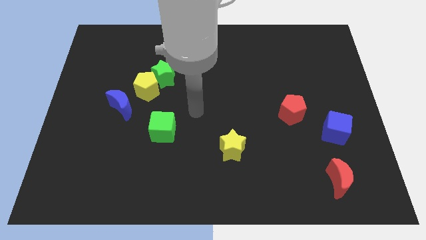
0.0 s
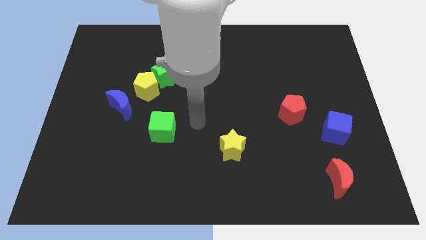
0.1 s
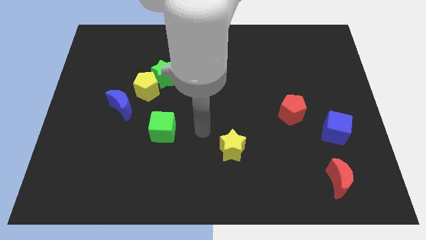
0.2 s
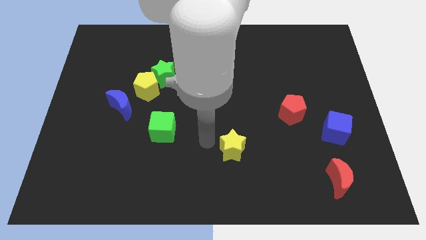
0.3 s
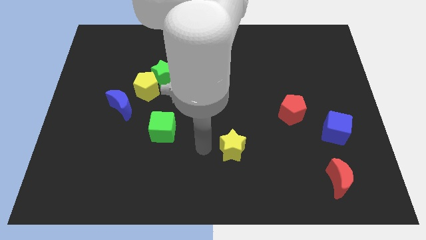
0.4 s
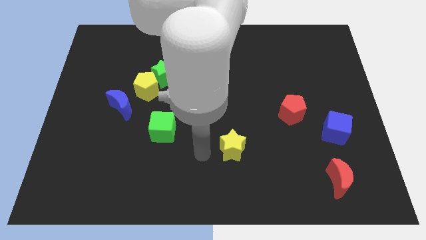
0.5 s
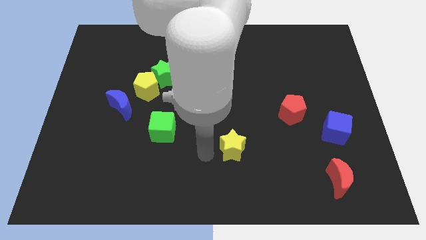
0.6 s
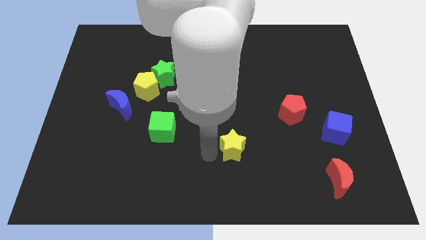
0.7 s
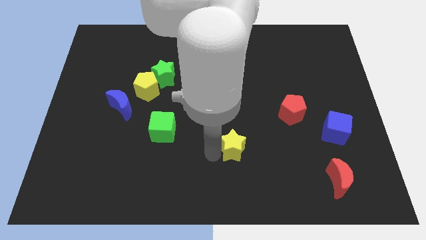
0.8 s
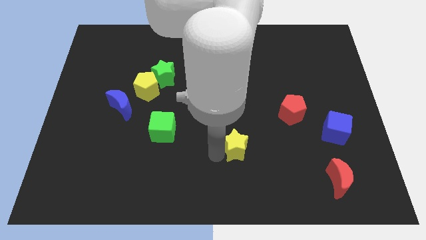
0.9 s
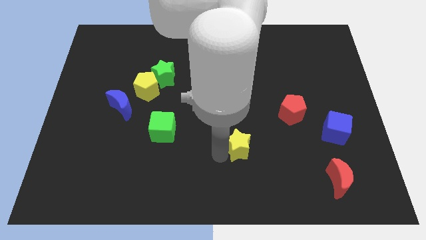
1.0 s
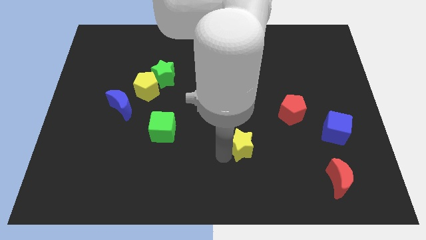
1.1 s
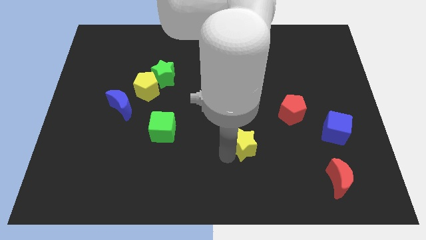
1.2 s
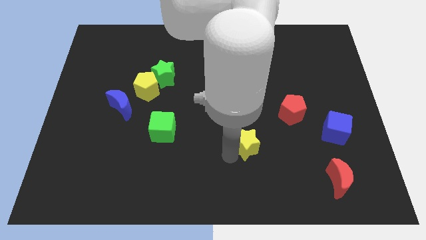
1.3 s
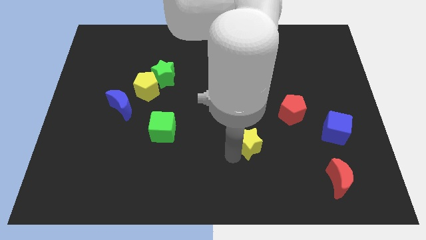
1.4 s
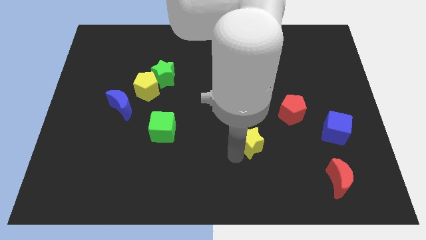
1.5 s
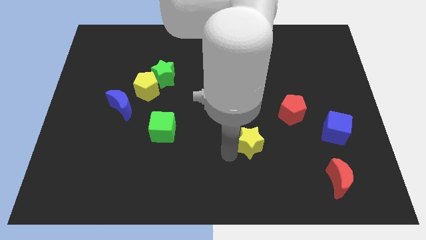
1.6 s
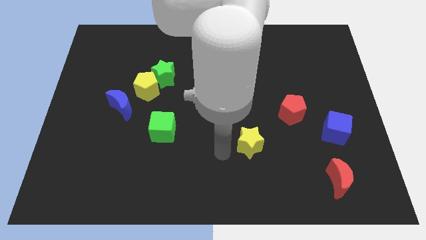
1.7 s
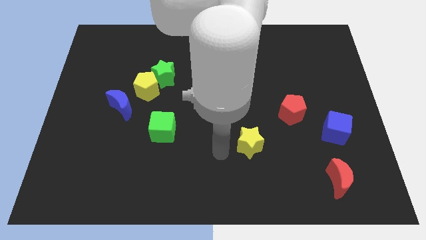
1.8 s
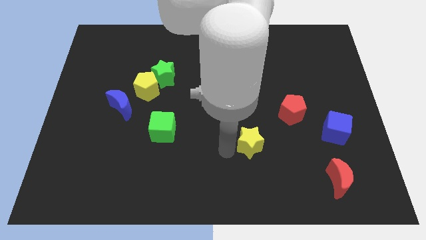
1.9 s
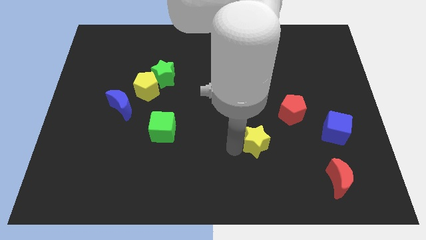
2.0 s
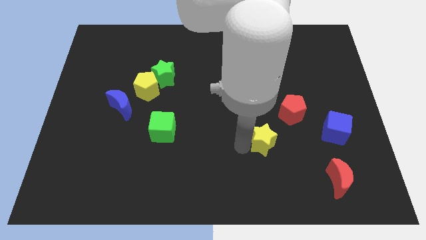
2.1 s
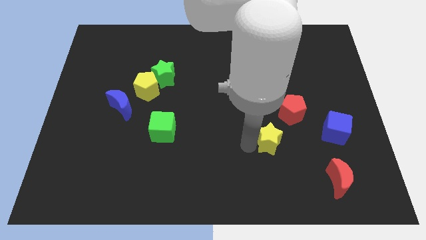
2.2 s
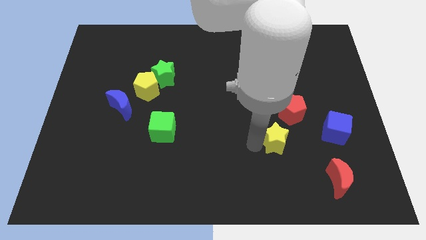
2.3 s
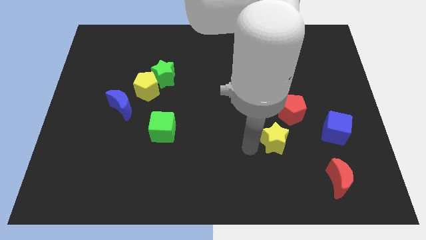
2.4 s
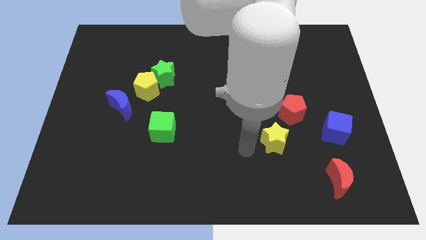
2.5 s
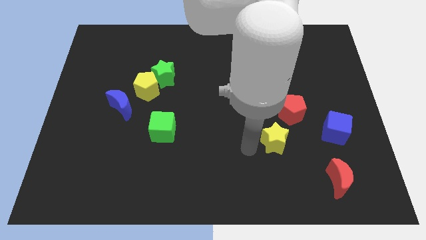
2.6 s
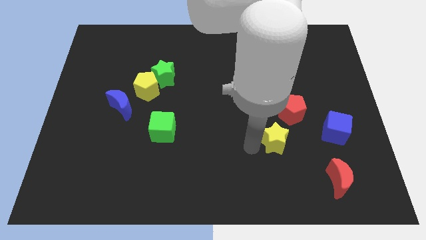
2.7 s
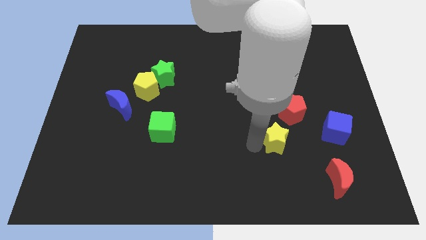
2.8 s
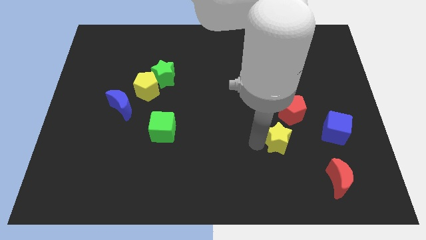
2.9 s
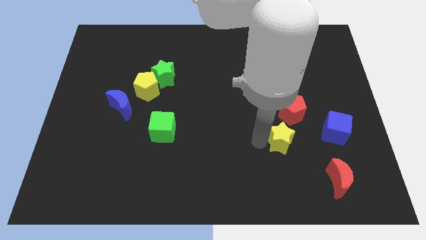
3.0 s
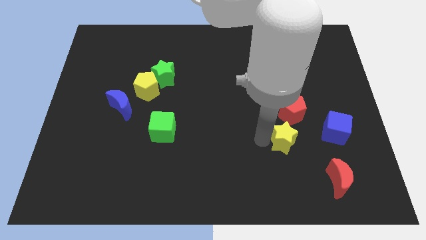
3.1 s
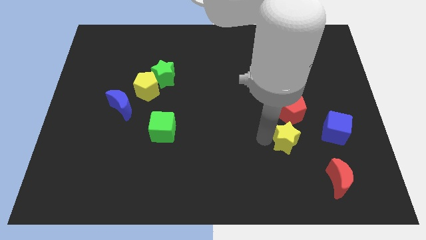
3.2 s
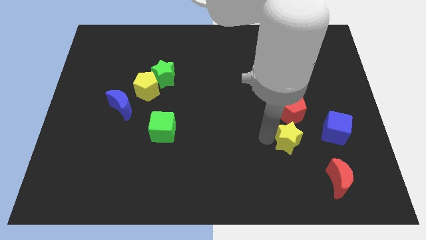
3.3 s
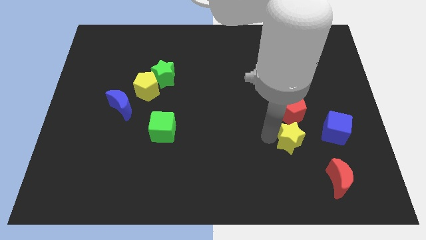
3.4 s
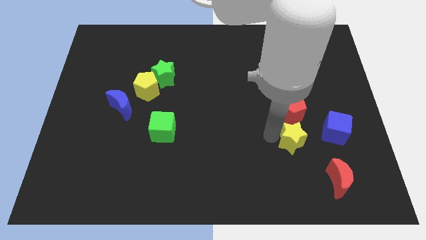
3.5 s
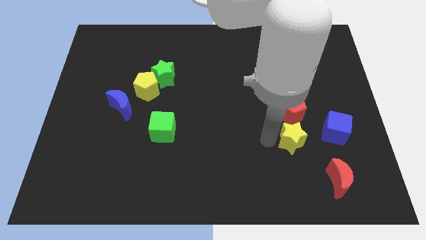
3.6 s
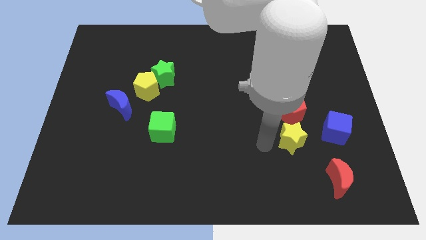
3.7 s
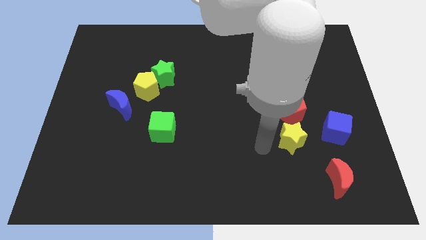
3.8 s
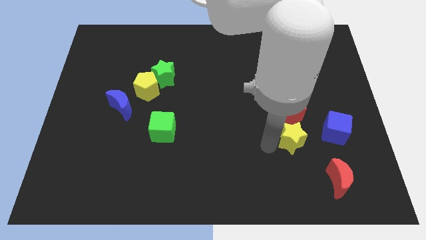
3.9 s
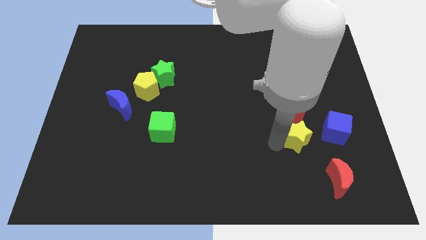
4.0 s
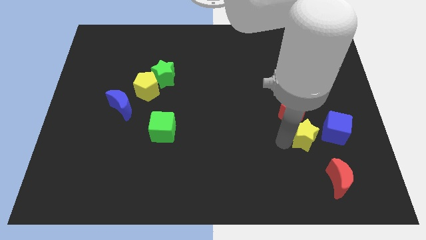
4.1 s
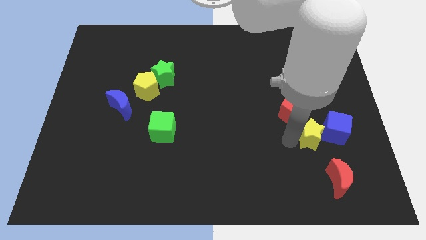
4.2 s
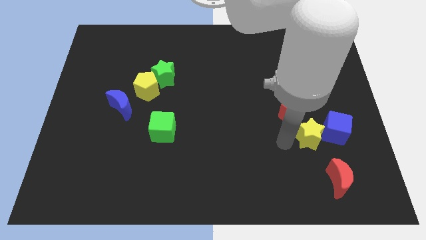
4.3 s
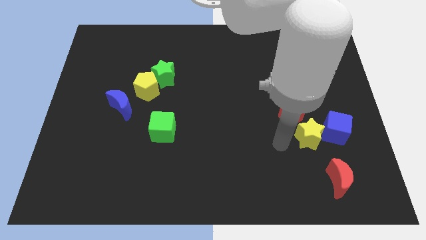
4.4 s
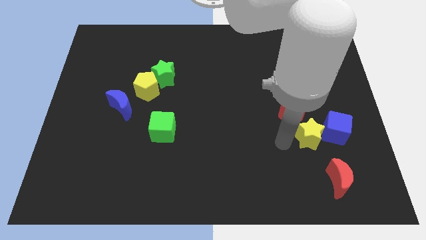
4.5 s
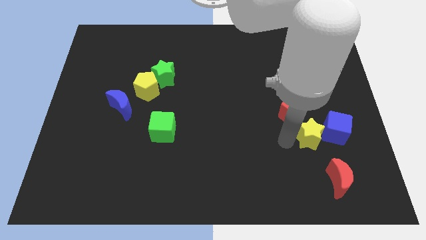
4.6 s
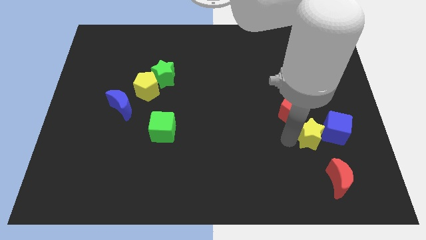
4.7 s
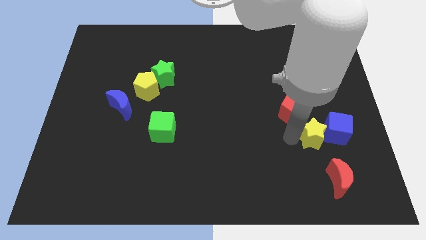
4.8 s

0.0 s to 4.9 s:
slide the yellow star to the blue cube

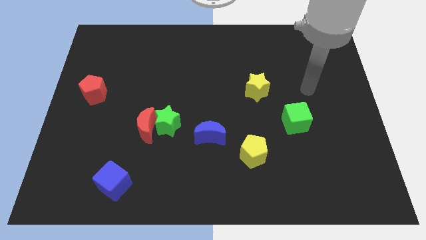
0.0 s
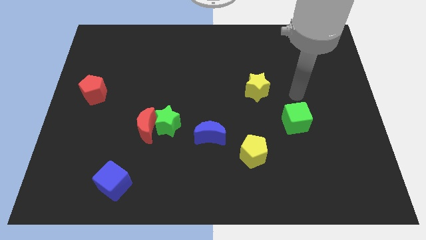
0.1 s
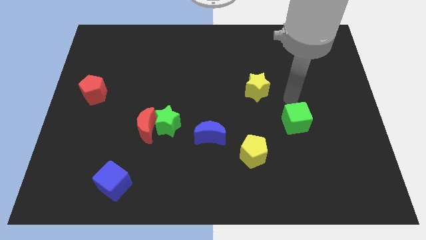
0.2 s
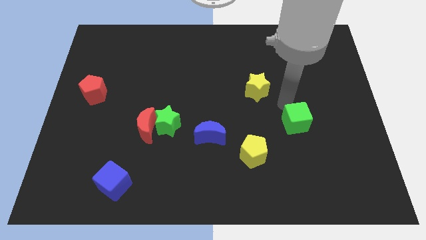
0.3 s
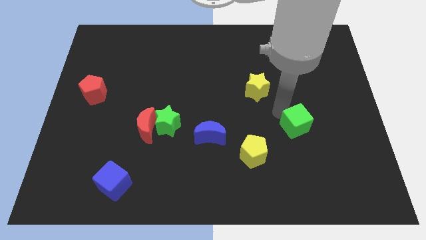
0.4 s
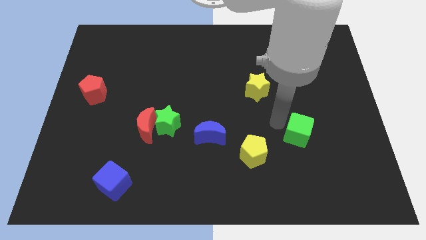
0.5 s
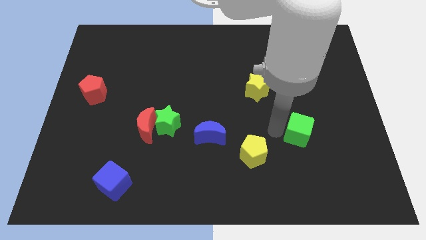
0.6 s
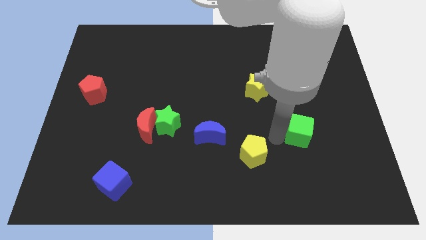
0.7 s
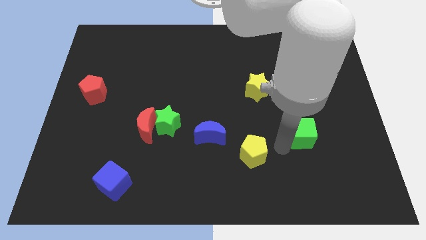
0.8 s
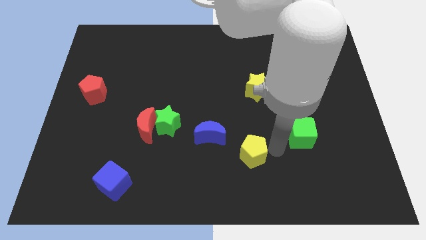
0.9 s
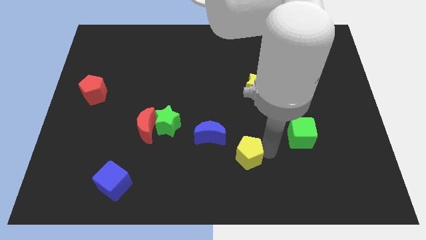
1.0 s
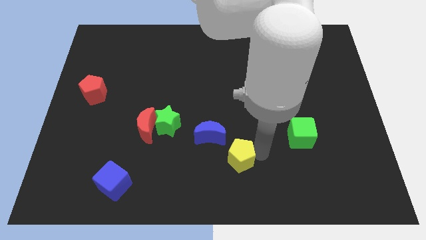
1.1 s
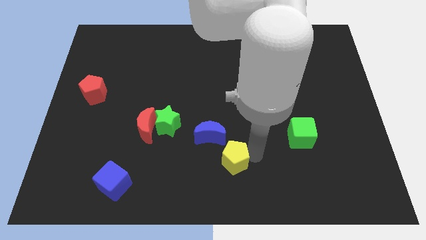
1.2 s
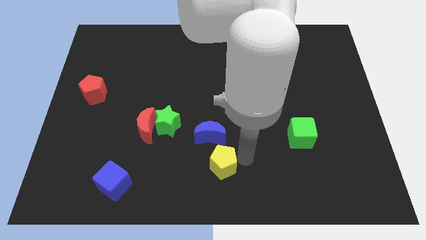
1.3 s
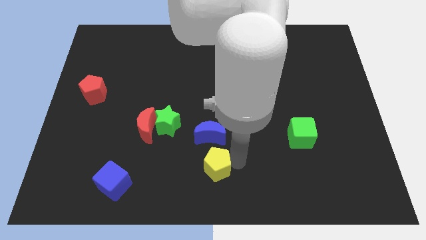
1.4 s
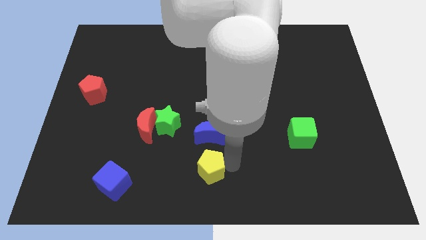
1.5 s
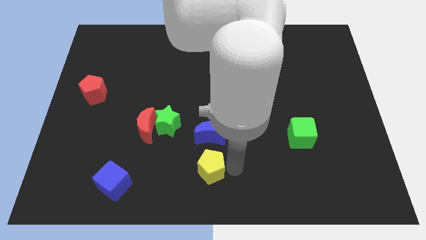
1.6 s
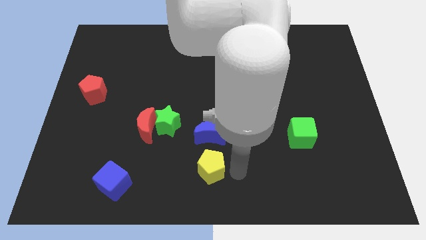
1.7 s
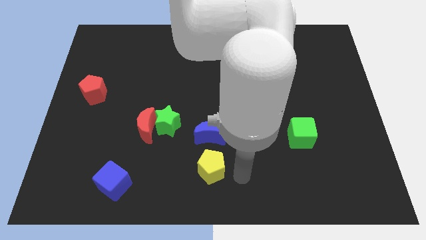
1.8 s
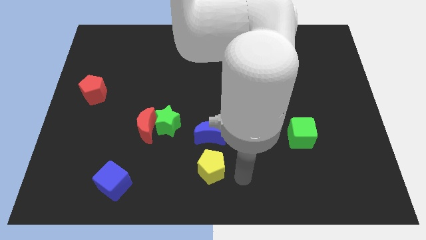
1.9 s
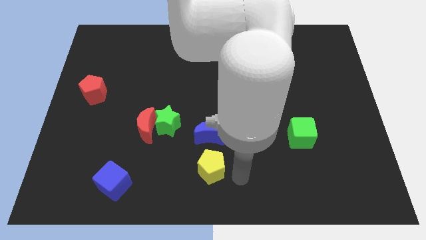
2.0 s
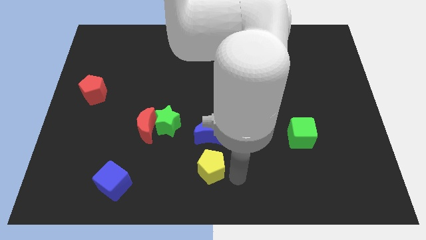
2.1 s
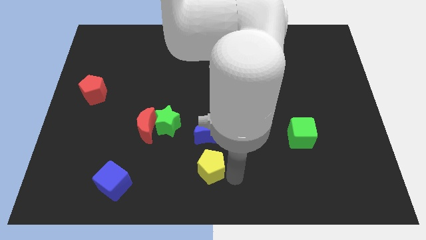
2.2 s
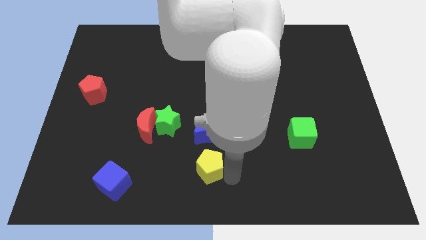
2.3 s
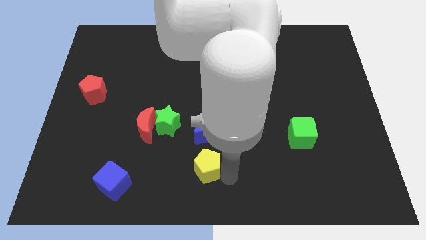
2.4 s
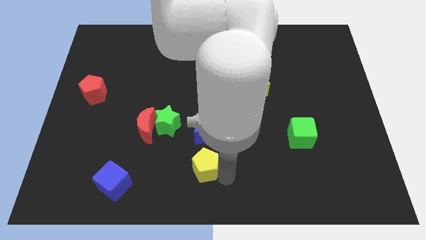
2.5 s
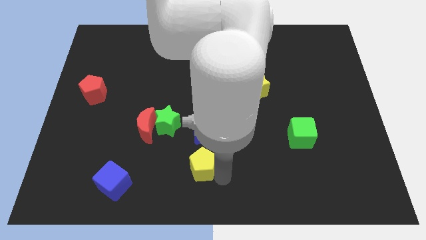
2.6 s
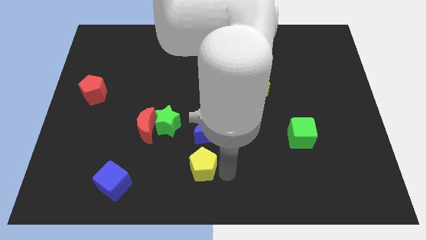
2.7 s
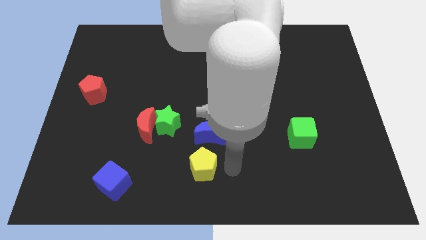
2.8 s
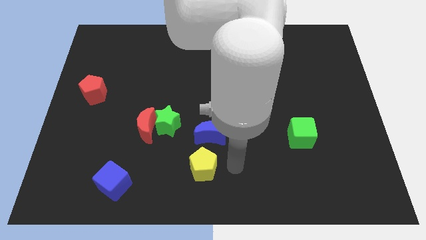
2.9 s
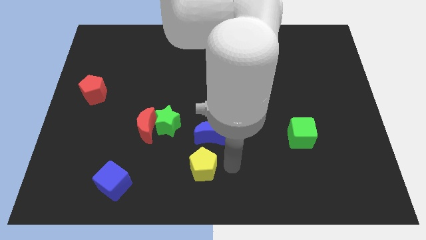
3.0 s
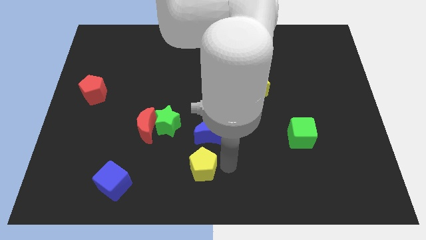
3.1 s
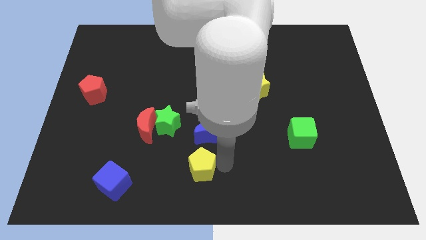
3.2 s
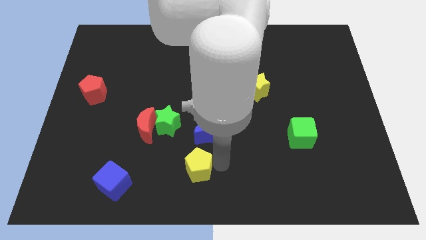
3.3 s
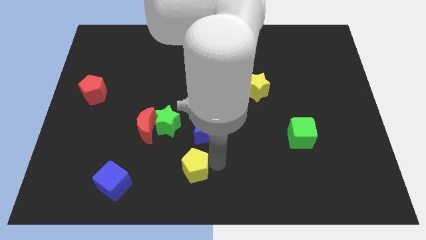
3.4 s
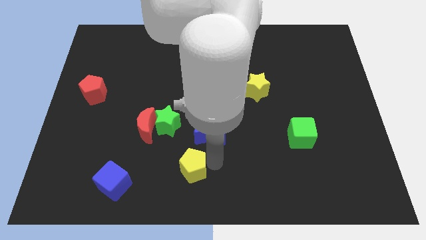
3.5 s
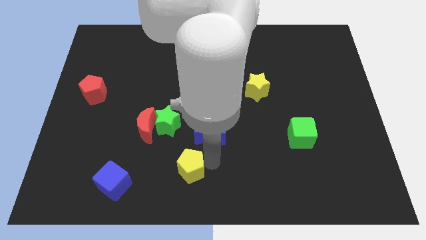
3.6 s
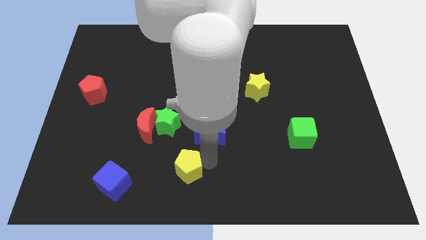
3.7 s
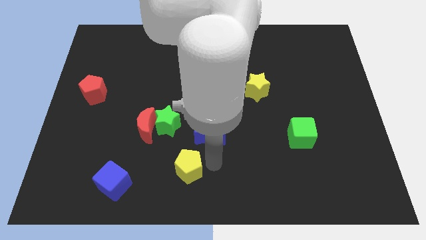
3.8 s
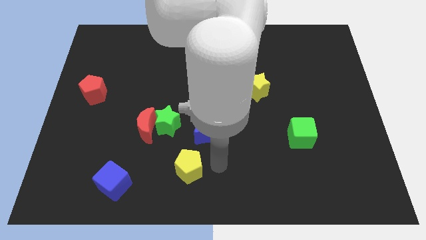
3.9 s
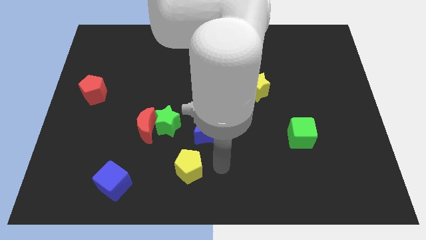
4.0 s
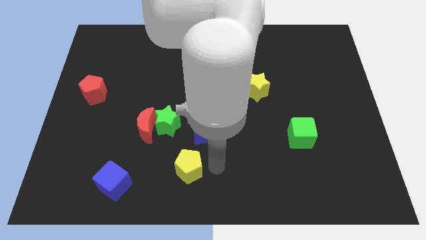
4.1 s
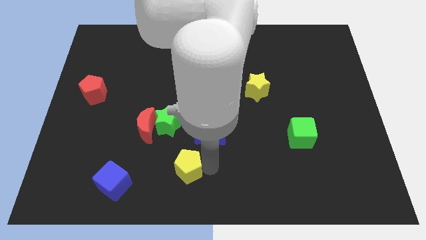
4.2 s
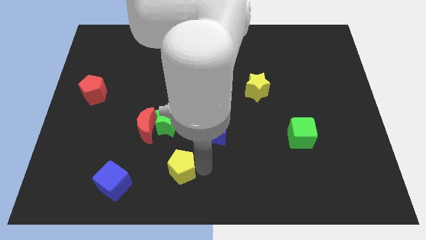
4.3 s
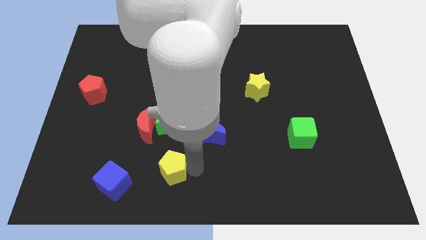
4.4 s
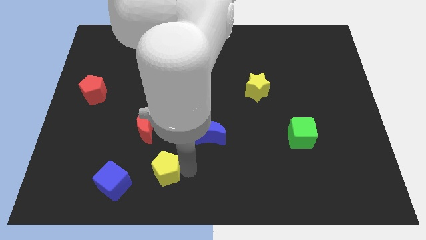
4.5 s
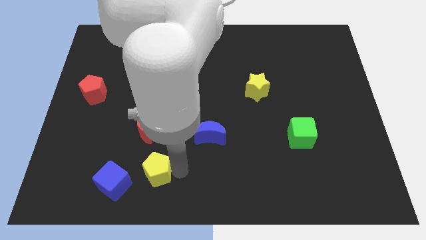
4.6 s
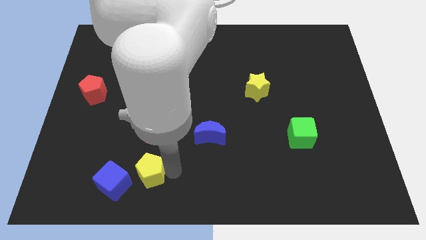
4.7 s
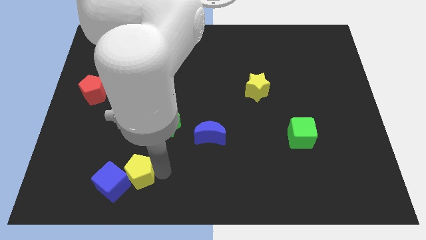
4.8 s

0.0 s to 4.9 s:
move the yellow pentagon to the blue cube
